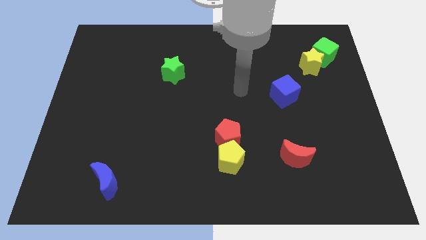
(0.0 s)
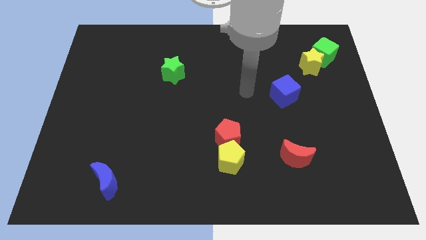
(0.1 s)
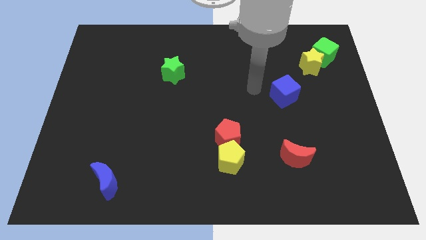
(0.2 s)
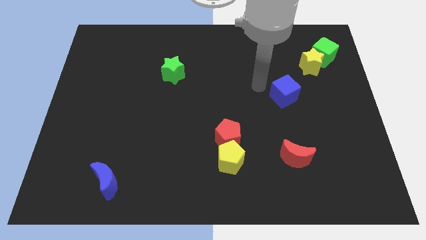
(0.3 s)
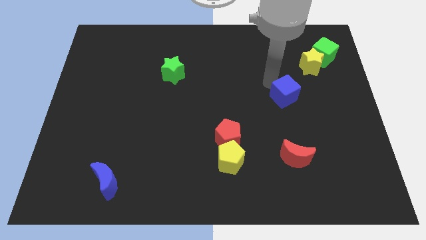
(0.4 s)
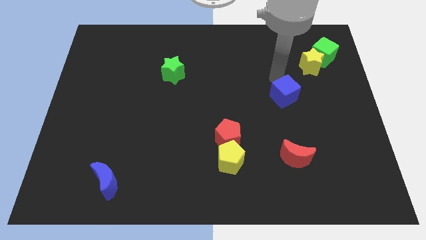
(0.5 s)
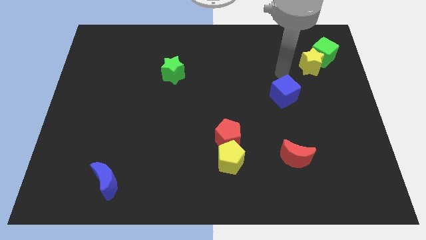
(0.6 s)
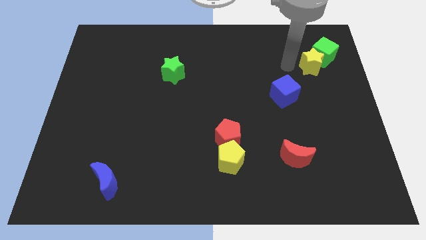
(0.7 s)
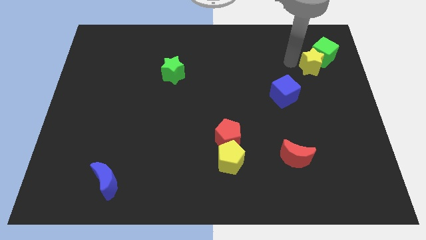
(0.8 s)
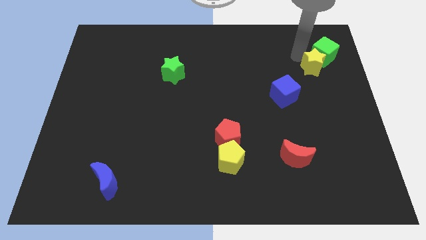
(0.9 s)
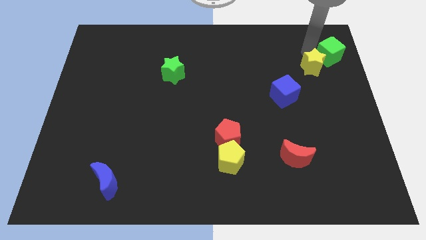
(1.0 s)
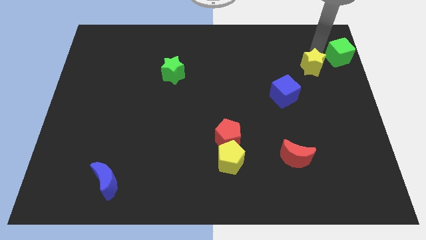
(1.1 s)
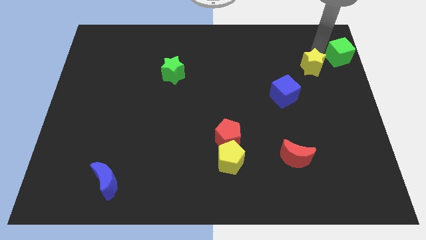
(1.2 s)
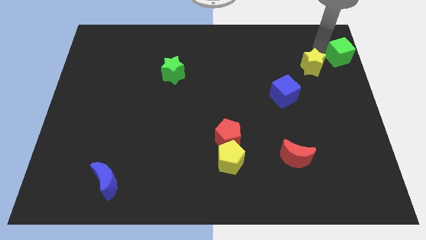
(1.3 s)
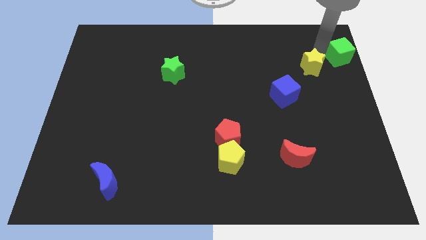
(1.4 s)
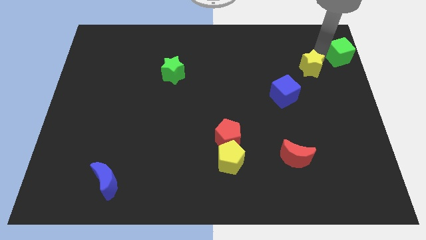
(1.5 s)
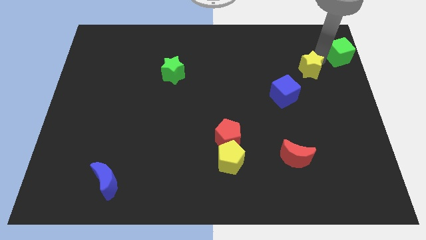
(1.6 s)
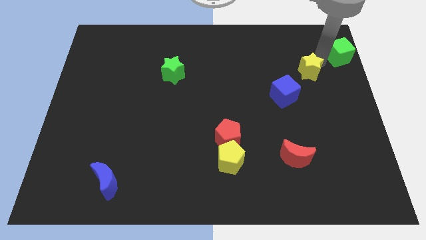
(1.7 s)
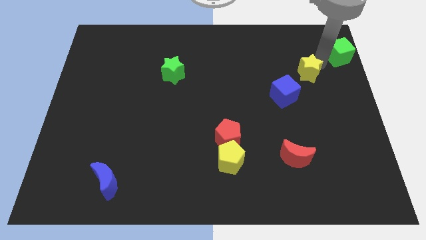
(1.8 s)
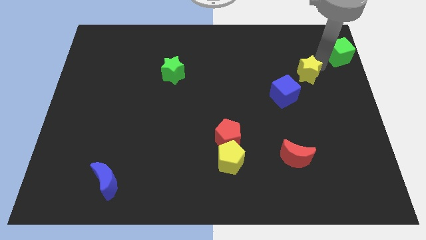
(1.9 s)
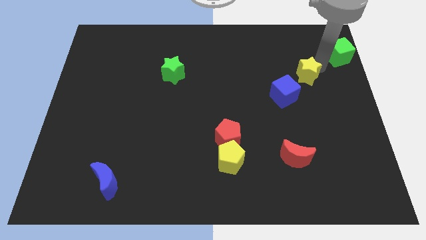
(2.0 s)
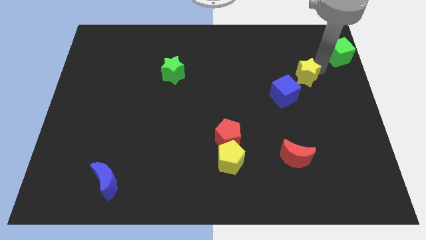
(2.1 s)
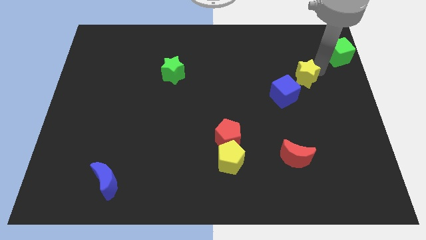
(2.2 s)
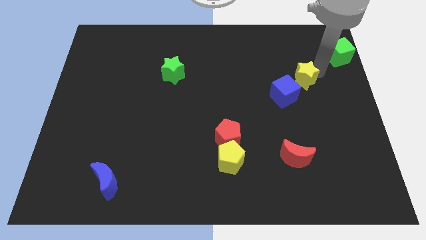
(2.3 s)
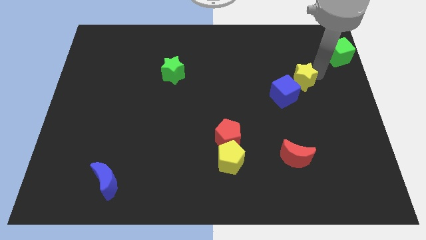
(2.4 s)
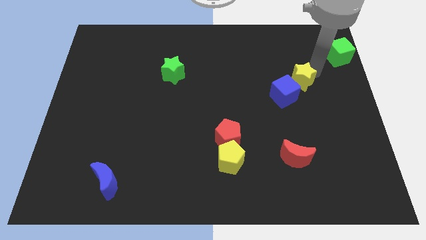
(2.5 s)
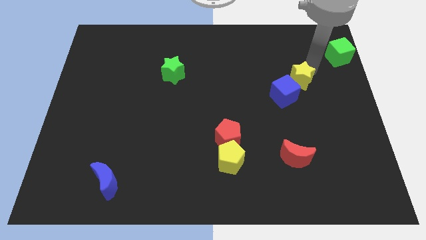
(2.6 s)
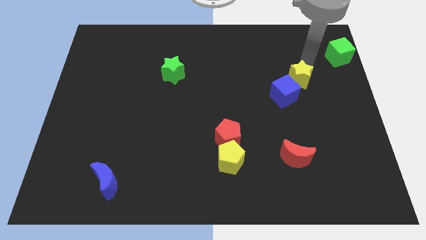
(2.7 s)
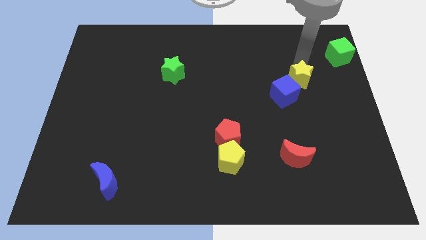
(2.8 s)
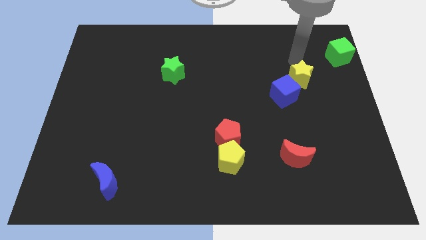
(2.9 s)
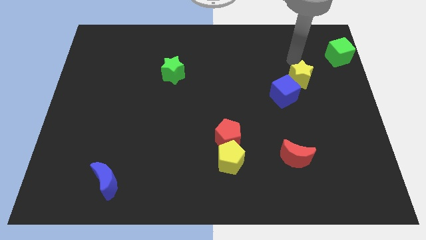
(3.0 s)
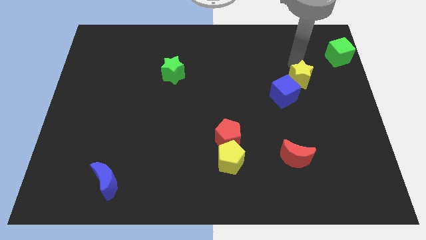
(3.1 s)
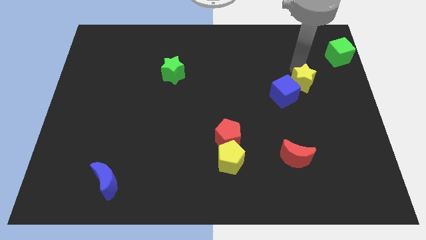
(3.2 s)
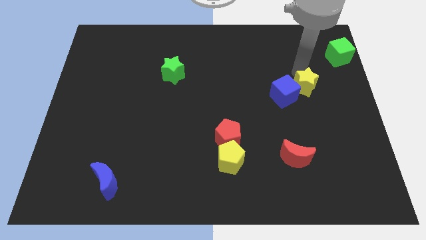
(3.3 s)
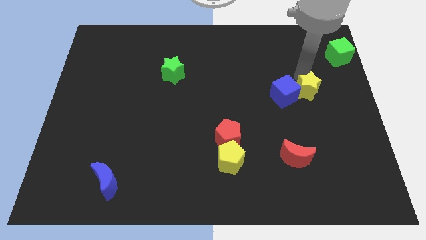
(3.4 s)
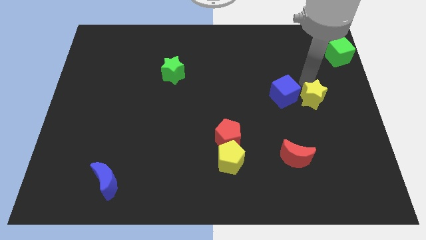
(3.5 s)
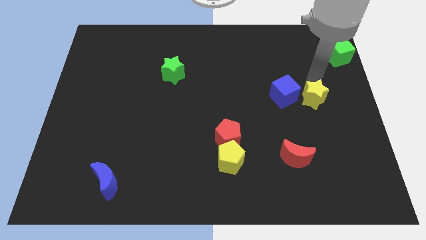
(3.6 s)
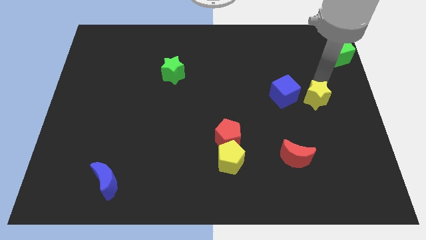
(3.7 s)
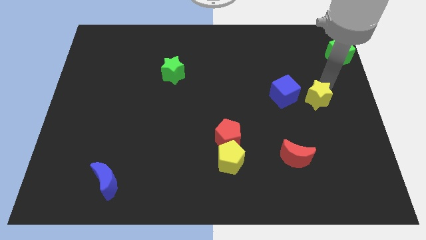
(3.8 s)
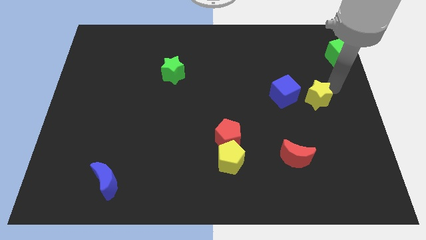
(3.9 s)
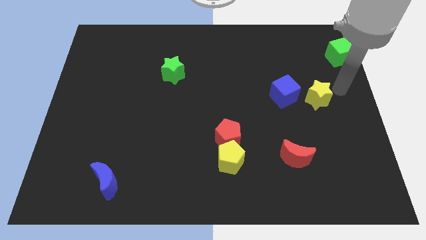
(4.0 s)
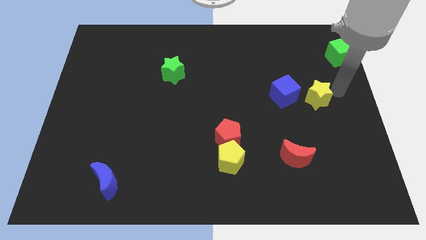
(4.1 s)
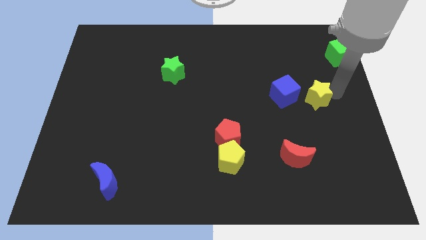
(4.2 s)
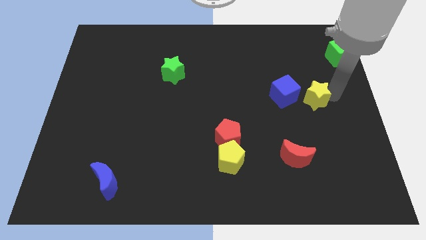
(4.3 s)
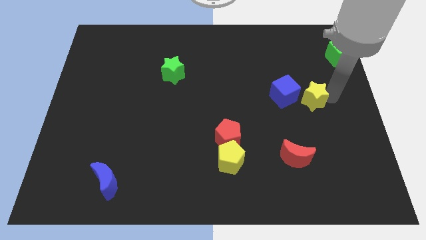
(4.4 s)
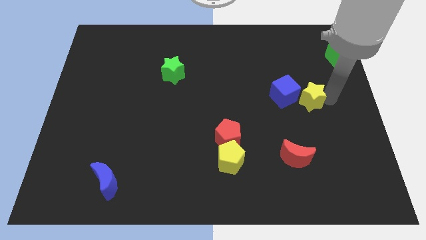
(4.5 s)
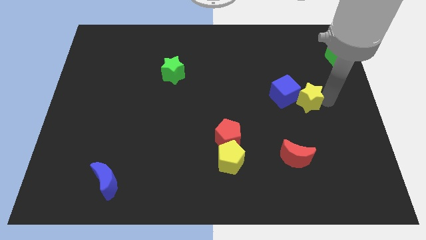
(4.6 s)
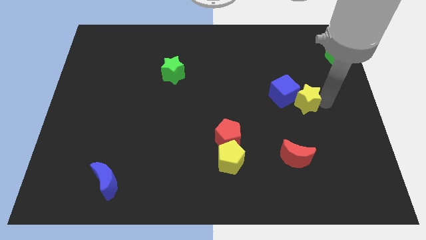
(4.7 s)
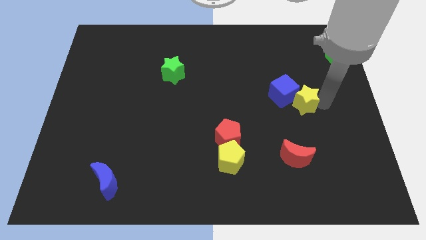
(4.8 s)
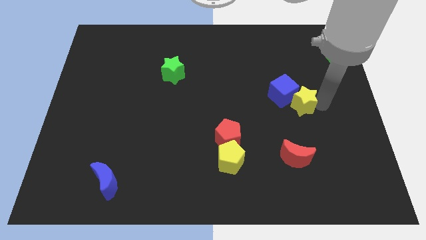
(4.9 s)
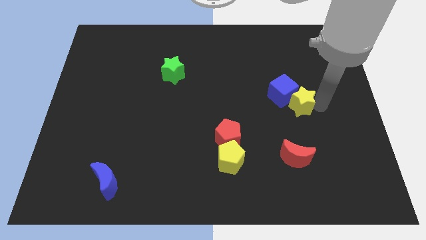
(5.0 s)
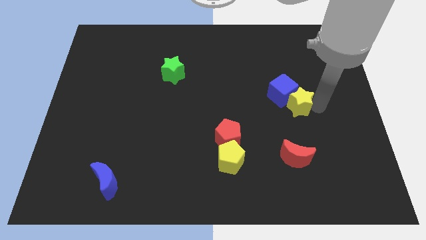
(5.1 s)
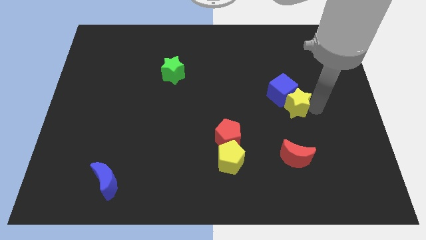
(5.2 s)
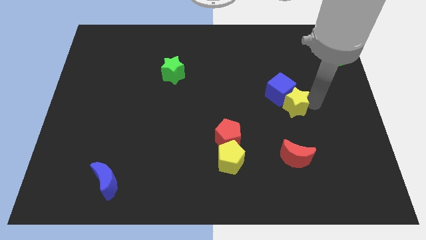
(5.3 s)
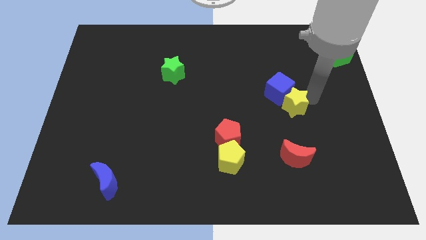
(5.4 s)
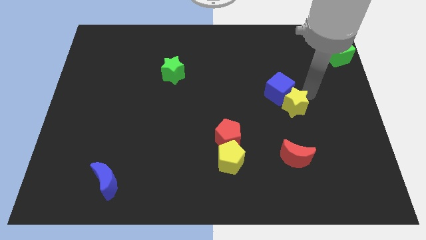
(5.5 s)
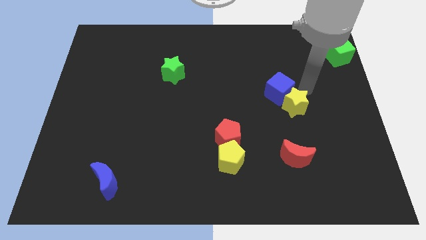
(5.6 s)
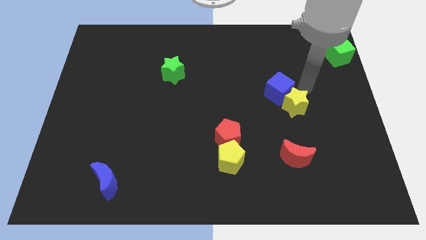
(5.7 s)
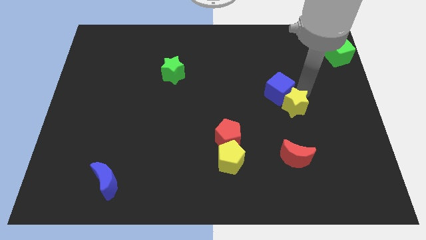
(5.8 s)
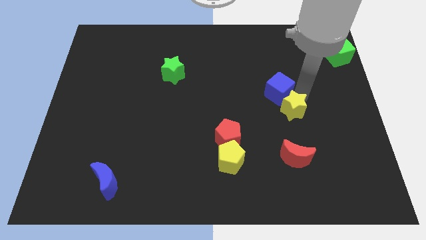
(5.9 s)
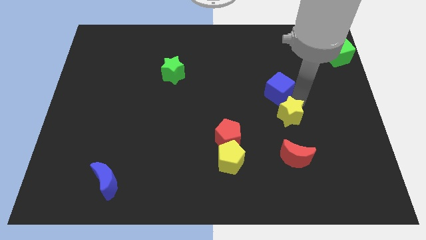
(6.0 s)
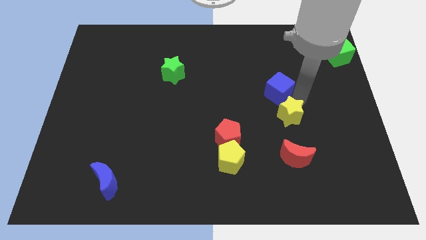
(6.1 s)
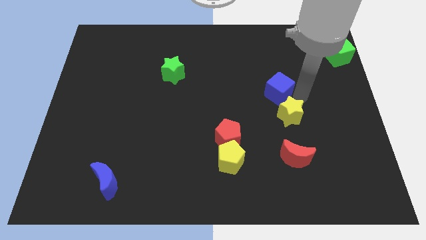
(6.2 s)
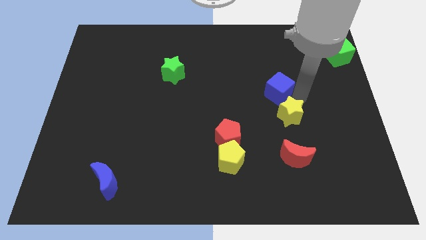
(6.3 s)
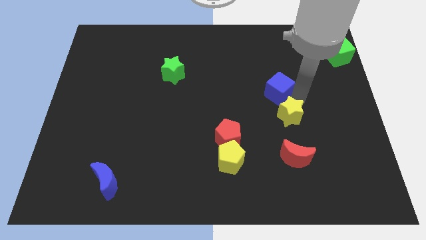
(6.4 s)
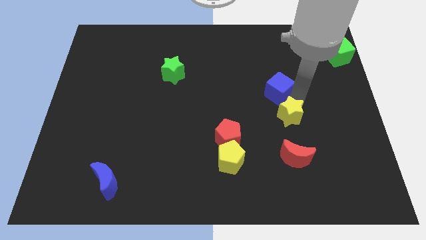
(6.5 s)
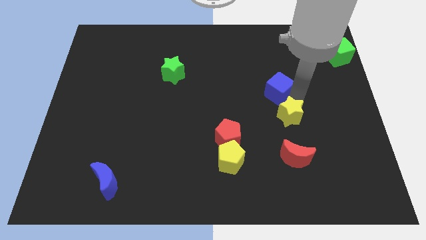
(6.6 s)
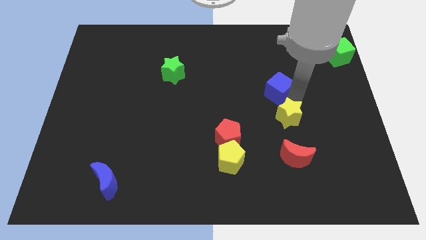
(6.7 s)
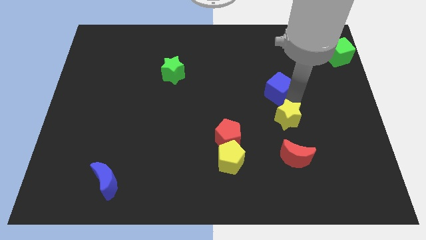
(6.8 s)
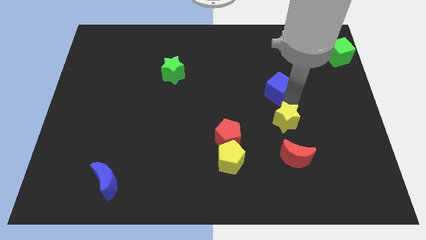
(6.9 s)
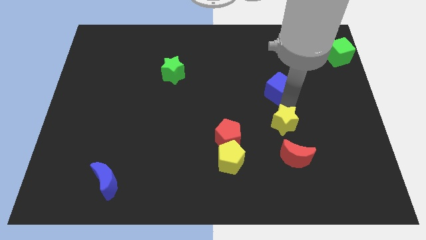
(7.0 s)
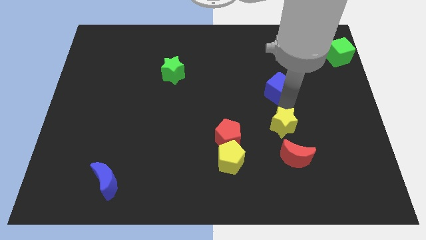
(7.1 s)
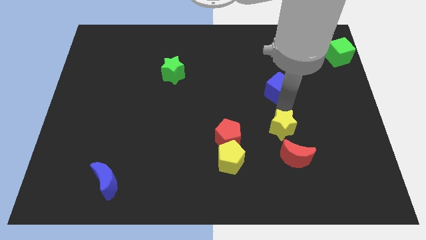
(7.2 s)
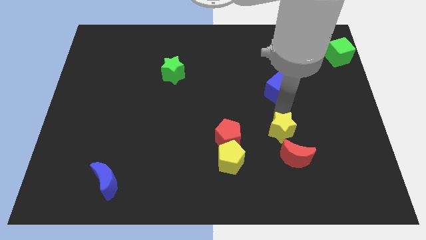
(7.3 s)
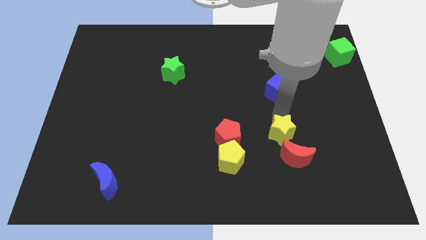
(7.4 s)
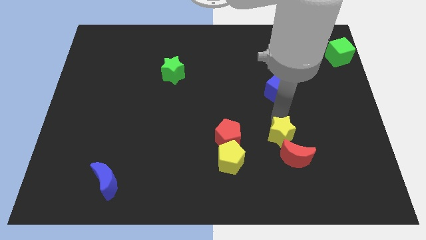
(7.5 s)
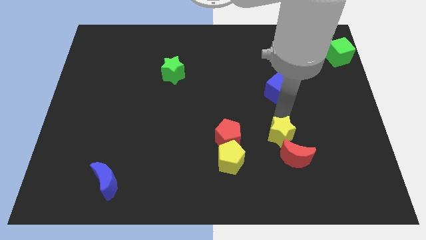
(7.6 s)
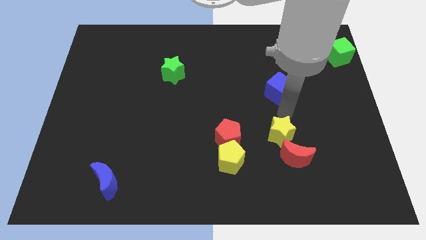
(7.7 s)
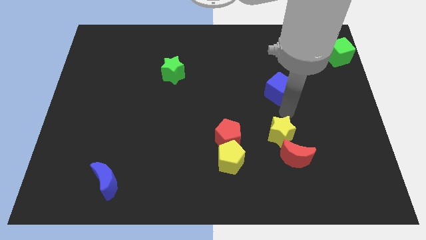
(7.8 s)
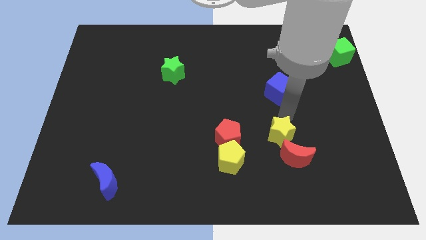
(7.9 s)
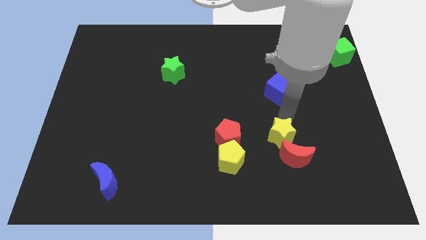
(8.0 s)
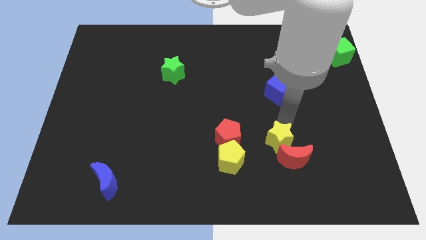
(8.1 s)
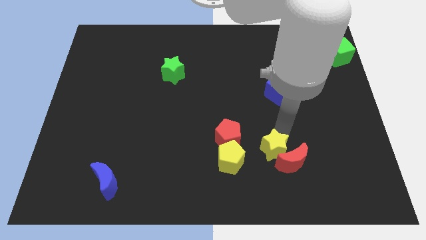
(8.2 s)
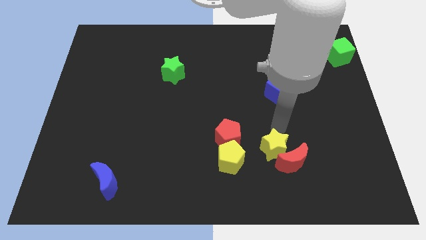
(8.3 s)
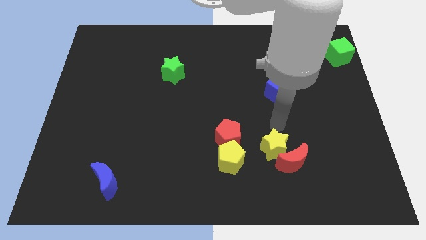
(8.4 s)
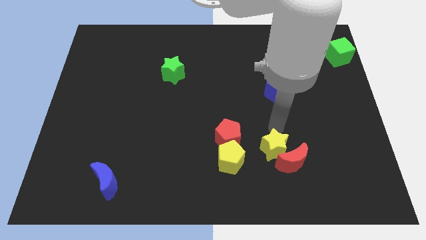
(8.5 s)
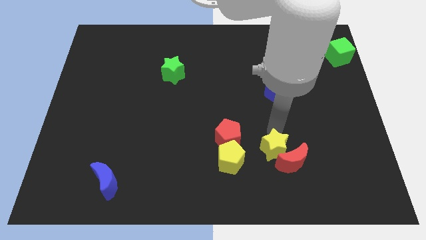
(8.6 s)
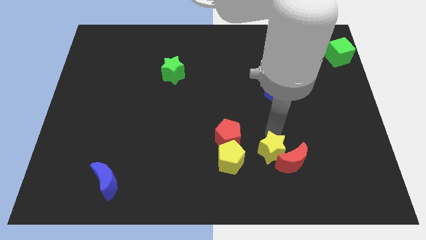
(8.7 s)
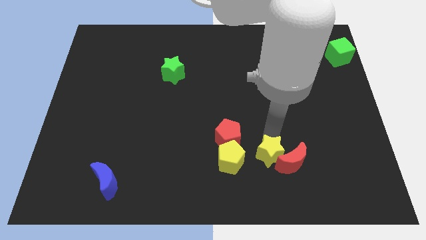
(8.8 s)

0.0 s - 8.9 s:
move the yellow star to the bottom left side of the red moon
